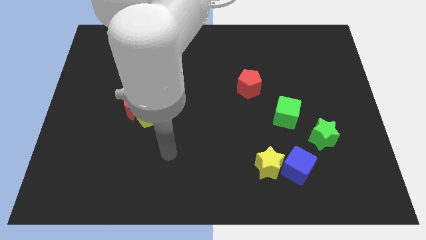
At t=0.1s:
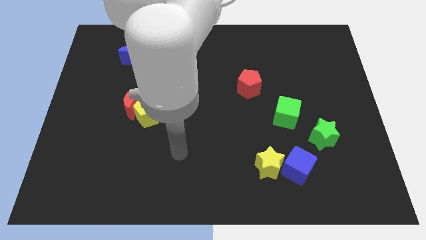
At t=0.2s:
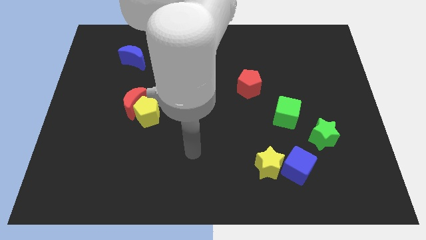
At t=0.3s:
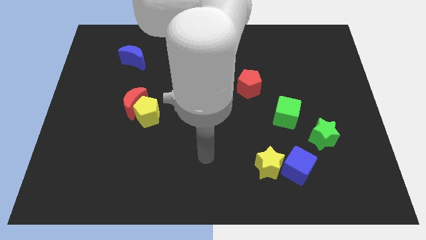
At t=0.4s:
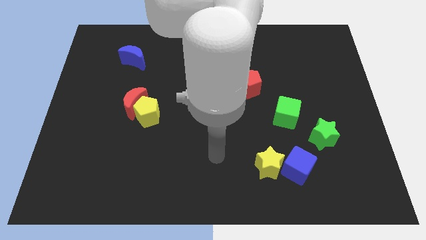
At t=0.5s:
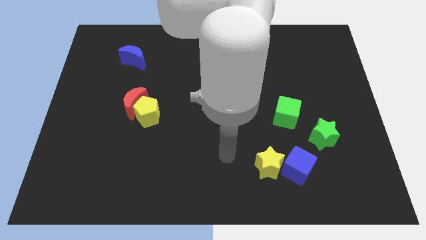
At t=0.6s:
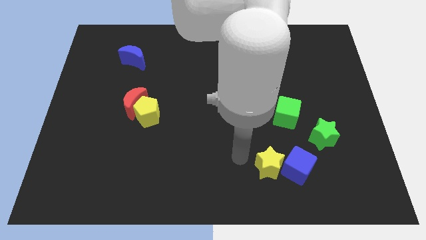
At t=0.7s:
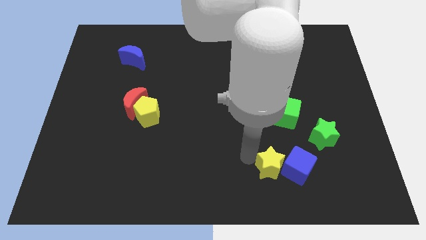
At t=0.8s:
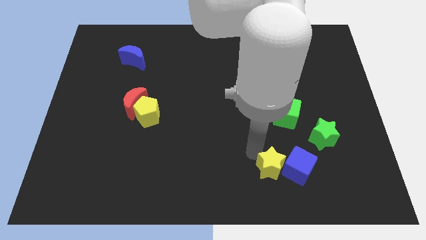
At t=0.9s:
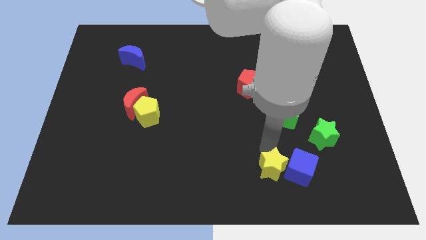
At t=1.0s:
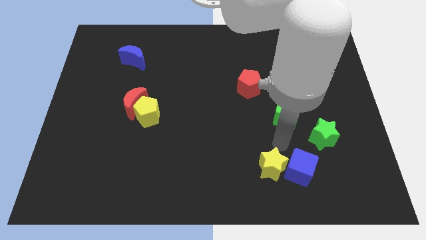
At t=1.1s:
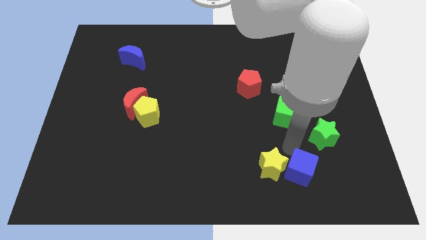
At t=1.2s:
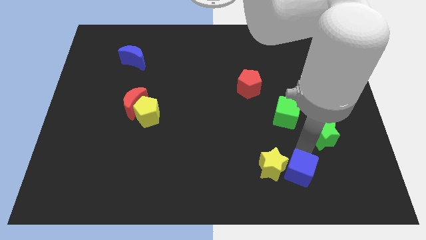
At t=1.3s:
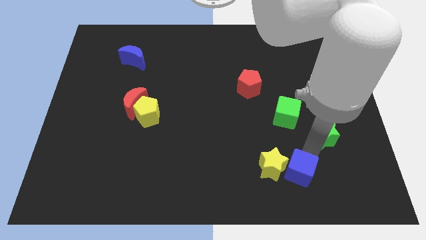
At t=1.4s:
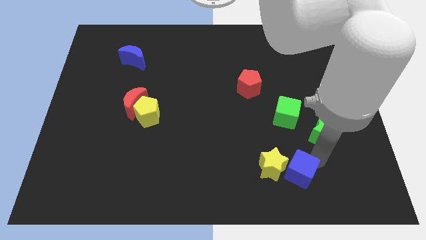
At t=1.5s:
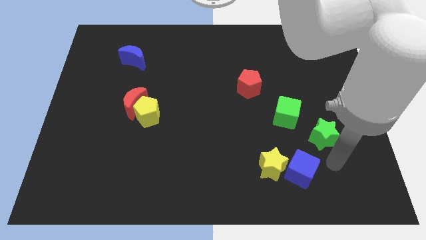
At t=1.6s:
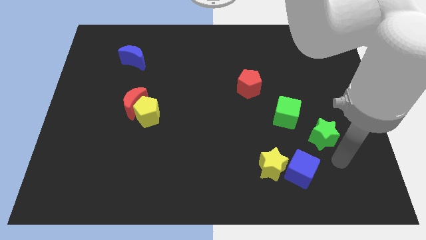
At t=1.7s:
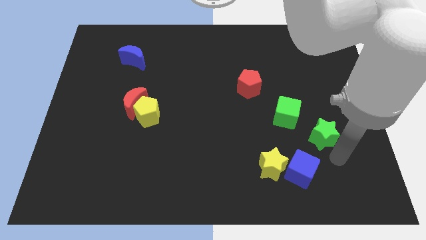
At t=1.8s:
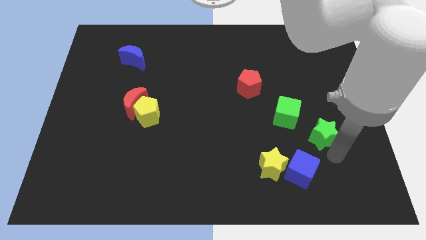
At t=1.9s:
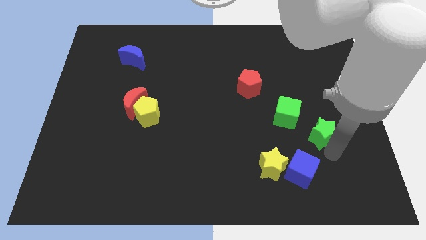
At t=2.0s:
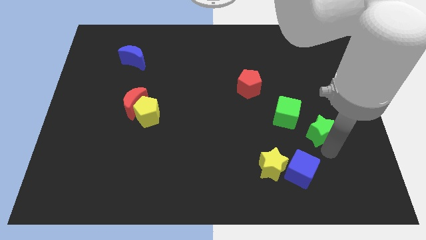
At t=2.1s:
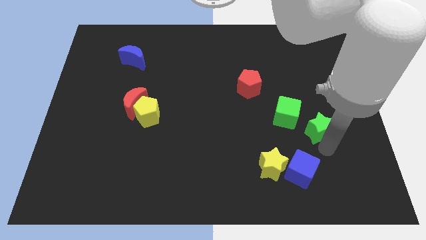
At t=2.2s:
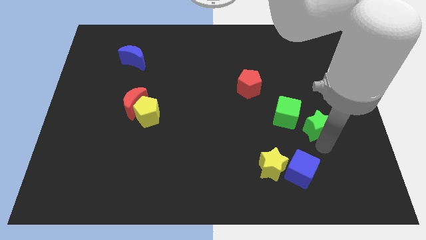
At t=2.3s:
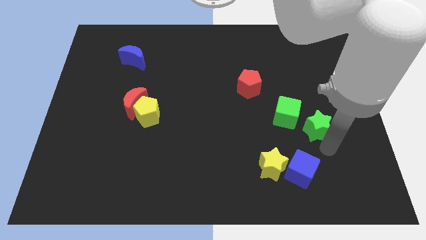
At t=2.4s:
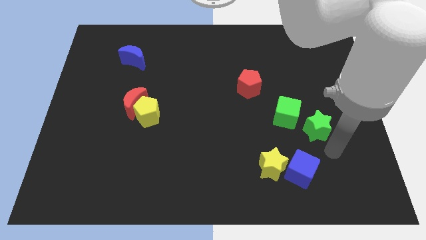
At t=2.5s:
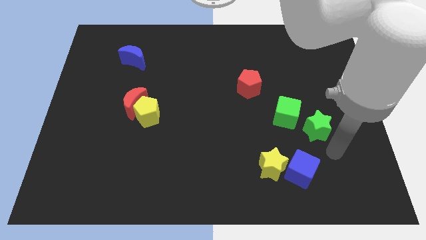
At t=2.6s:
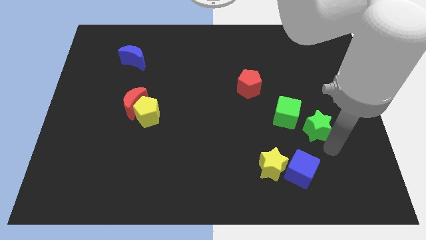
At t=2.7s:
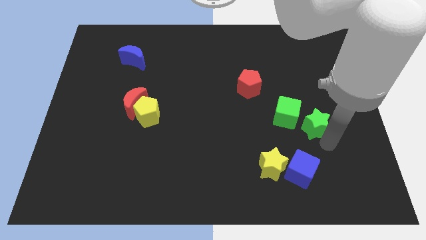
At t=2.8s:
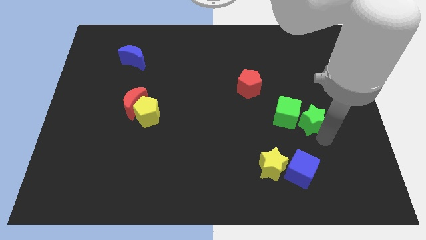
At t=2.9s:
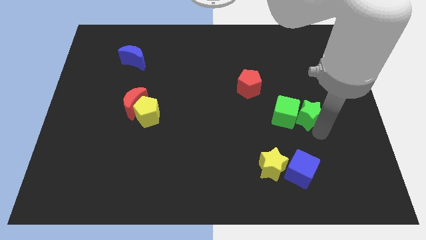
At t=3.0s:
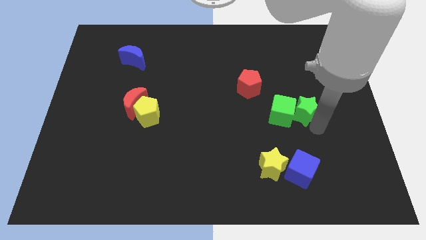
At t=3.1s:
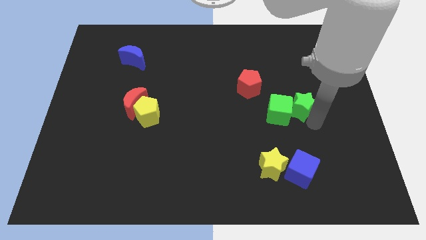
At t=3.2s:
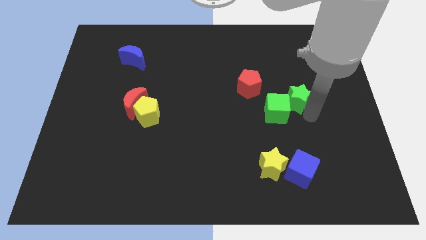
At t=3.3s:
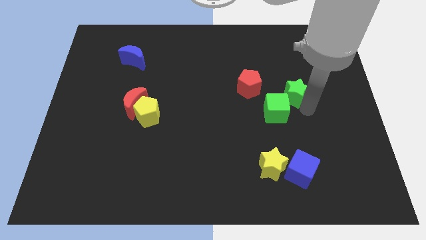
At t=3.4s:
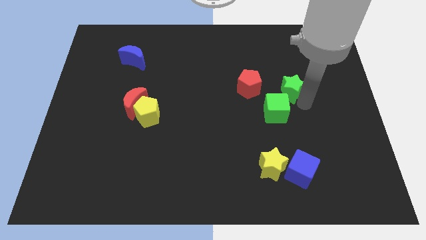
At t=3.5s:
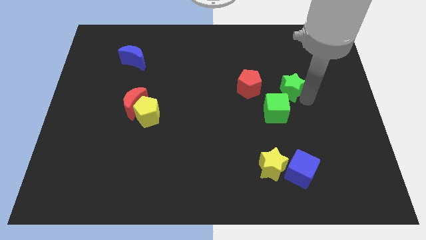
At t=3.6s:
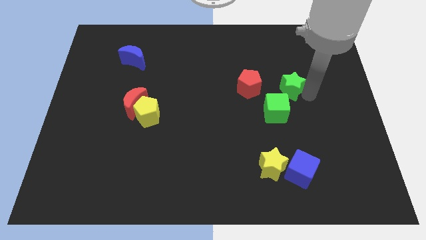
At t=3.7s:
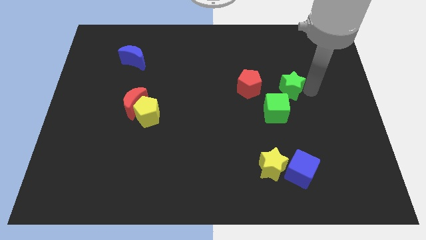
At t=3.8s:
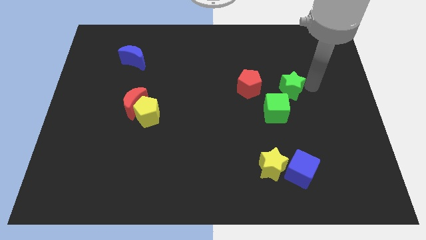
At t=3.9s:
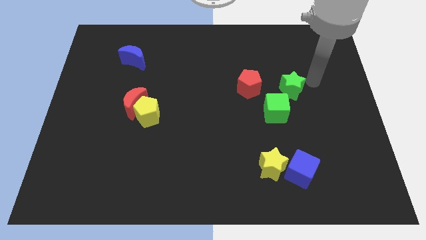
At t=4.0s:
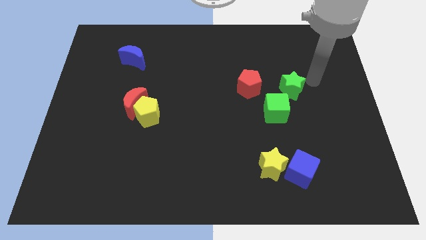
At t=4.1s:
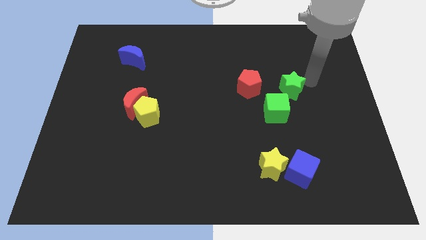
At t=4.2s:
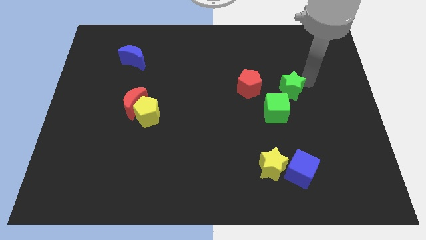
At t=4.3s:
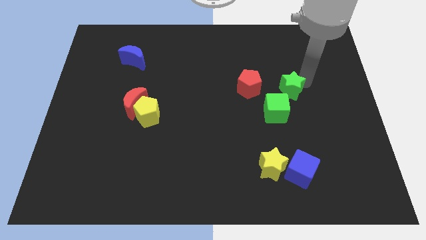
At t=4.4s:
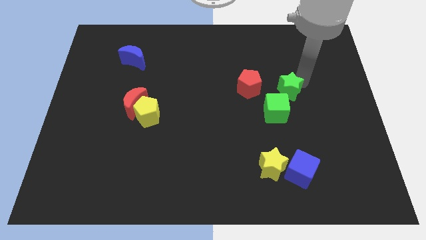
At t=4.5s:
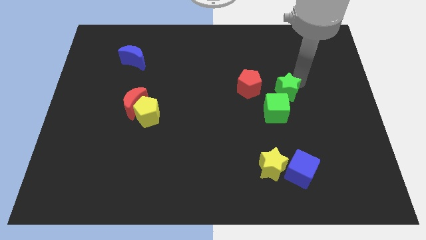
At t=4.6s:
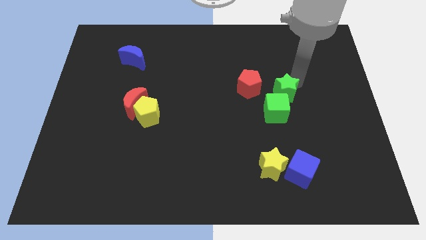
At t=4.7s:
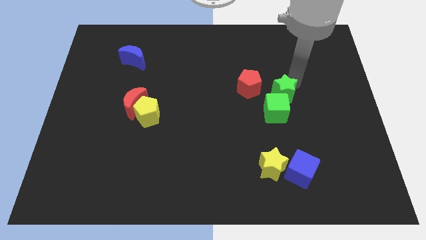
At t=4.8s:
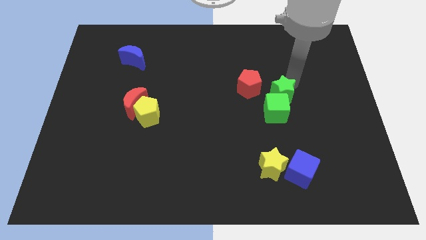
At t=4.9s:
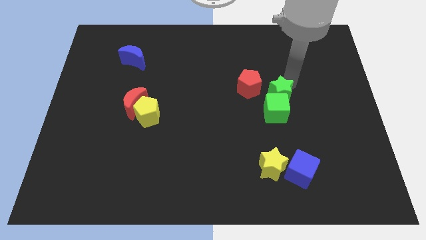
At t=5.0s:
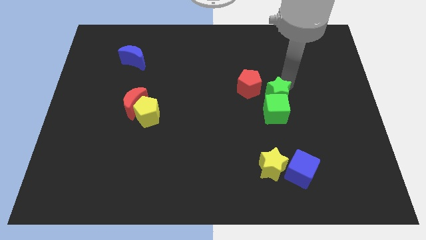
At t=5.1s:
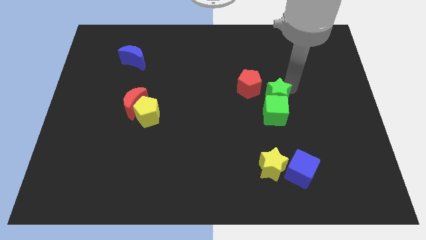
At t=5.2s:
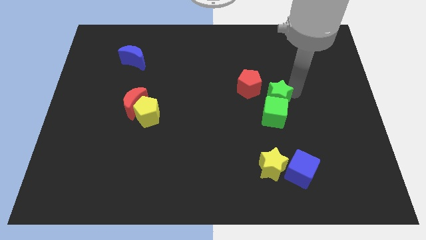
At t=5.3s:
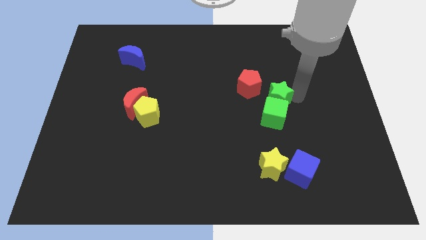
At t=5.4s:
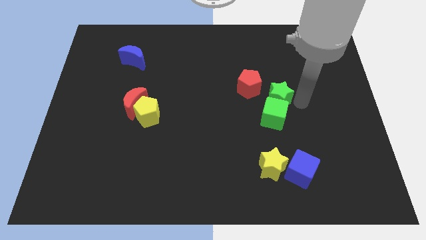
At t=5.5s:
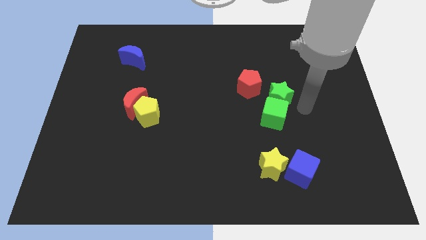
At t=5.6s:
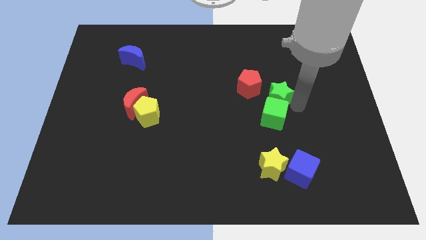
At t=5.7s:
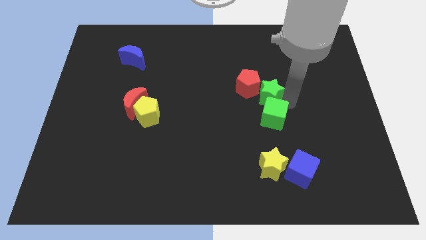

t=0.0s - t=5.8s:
move the green star to the red pentagon

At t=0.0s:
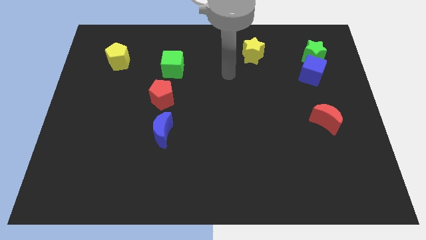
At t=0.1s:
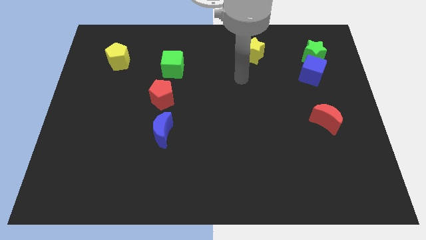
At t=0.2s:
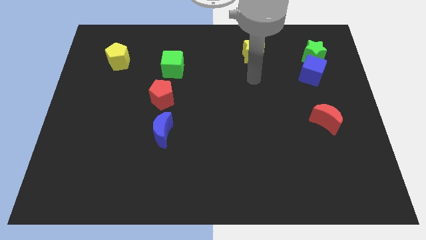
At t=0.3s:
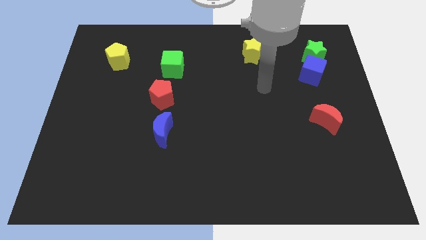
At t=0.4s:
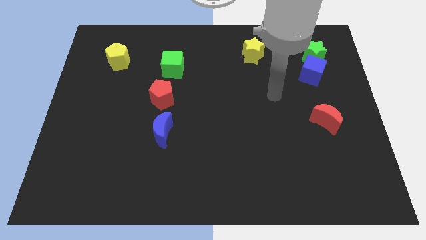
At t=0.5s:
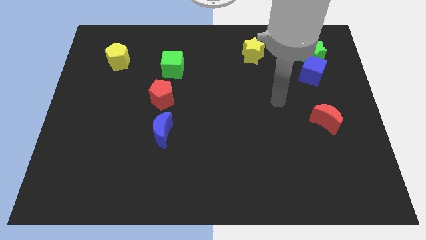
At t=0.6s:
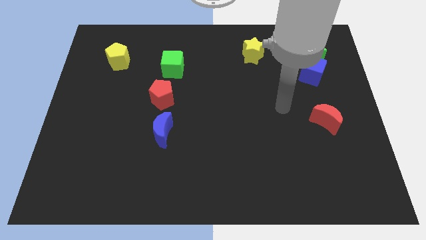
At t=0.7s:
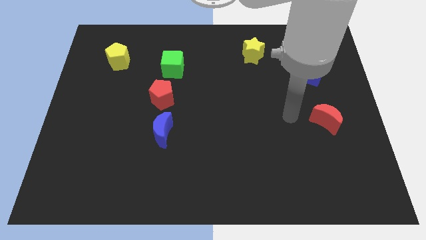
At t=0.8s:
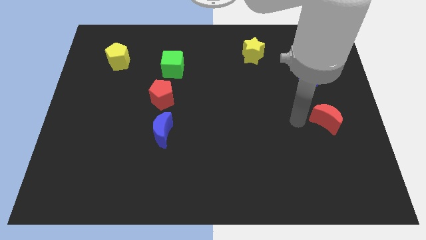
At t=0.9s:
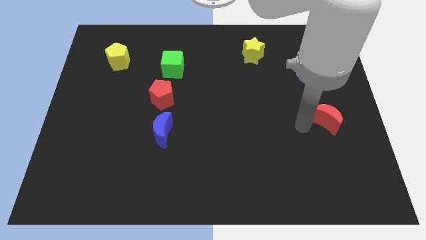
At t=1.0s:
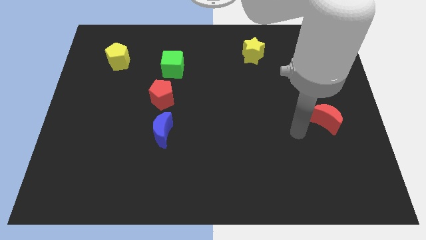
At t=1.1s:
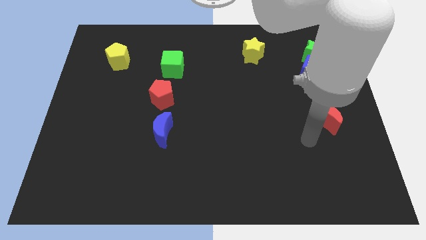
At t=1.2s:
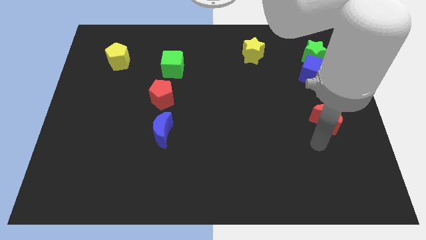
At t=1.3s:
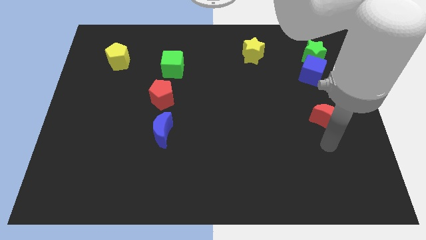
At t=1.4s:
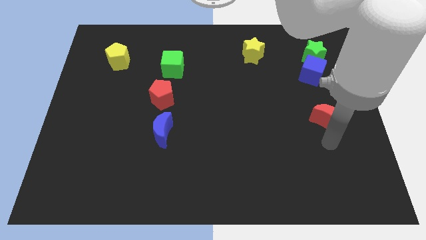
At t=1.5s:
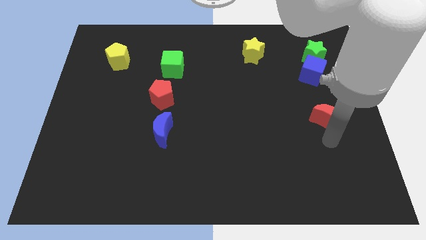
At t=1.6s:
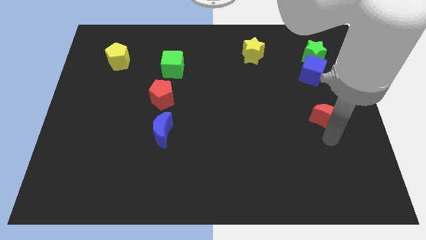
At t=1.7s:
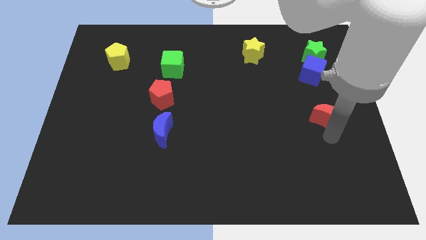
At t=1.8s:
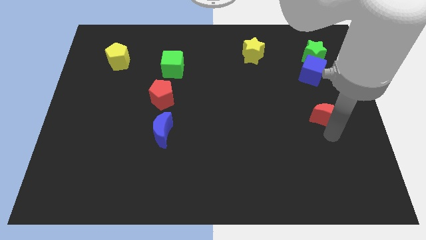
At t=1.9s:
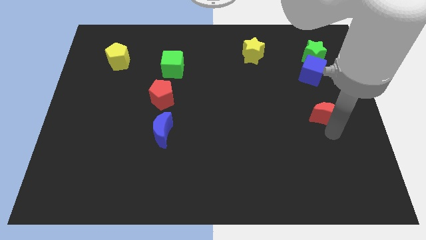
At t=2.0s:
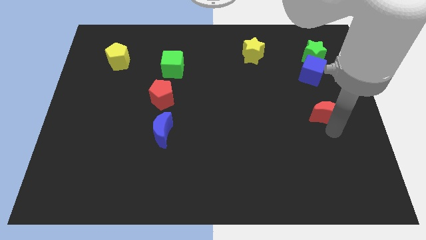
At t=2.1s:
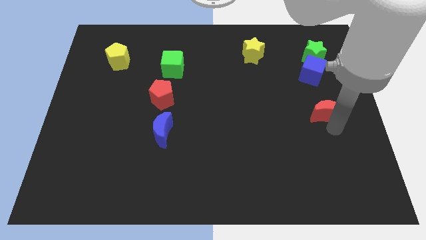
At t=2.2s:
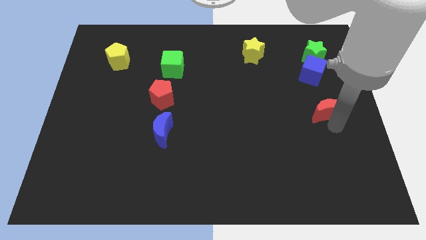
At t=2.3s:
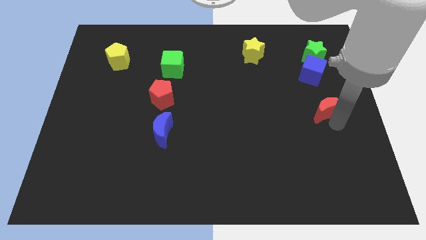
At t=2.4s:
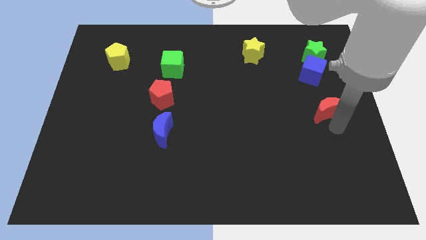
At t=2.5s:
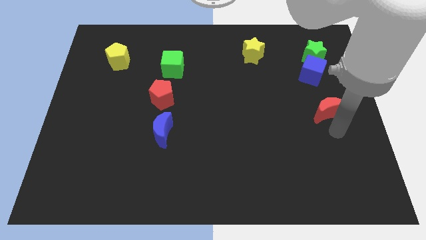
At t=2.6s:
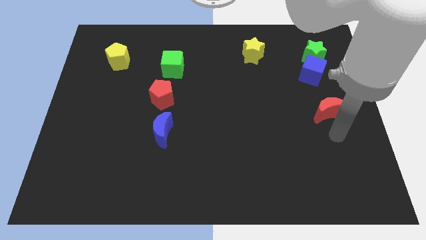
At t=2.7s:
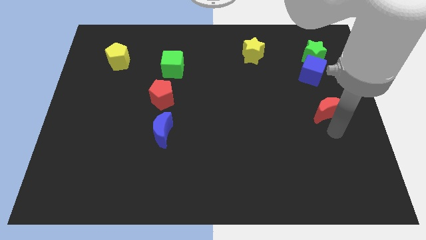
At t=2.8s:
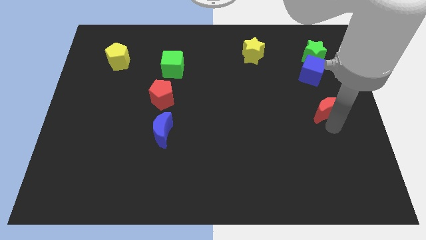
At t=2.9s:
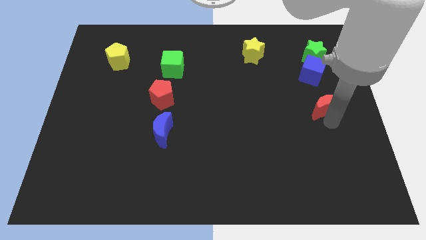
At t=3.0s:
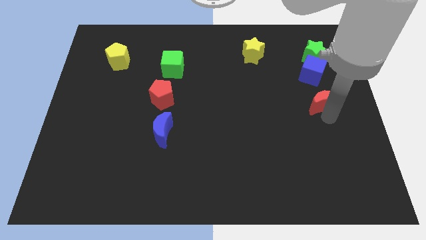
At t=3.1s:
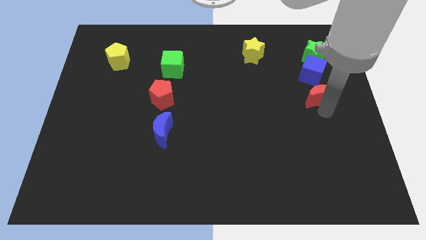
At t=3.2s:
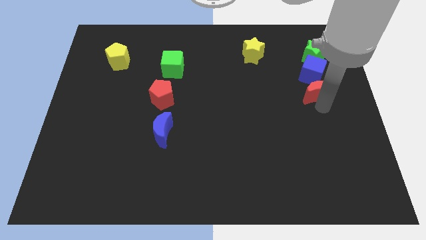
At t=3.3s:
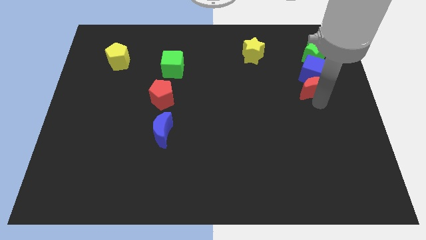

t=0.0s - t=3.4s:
push the red moon towards the blue cube
